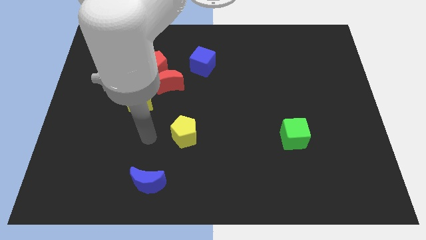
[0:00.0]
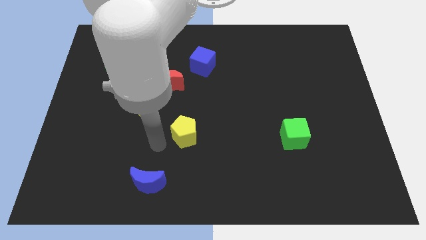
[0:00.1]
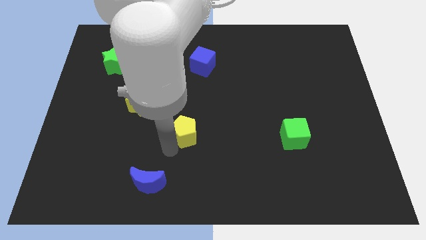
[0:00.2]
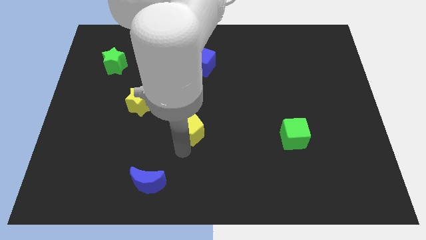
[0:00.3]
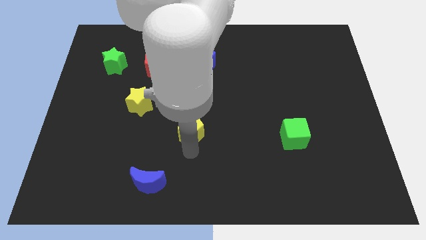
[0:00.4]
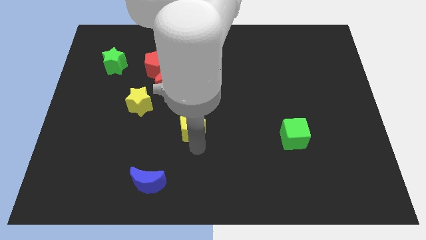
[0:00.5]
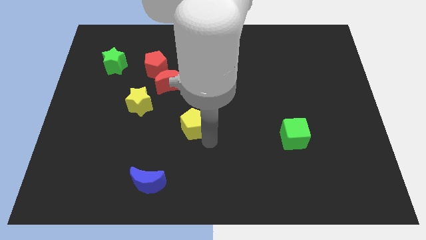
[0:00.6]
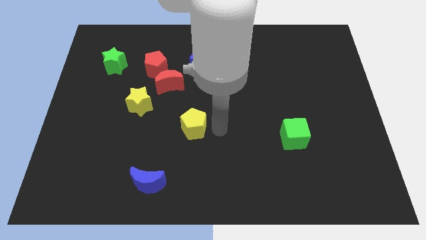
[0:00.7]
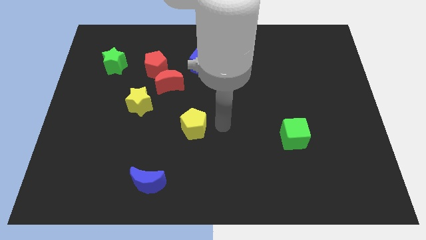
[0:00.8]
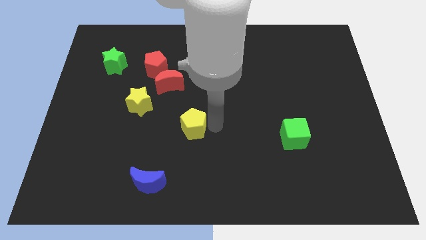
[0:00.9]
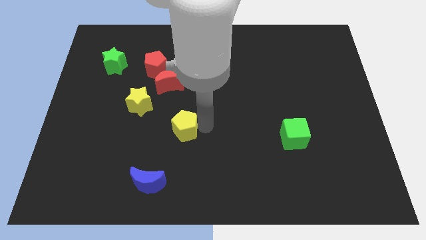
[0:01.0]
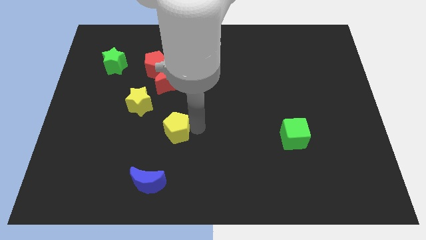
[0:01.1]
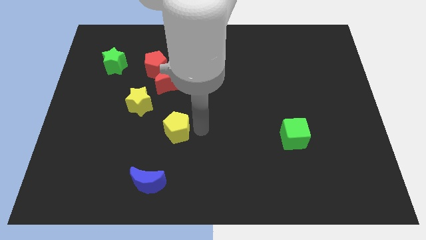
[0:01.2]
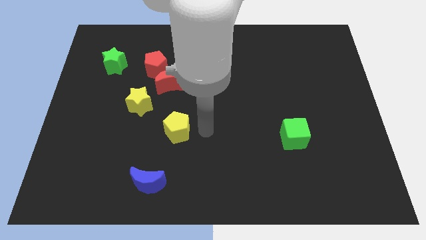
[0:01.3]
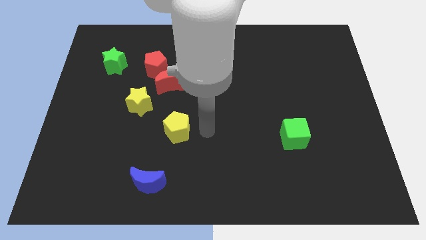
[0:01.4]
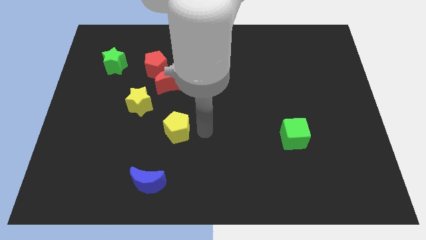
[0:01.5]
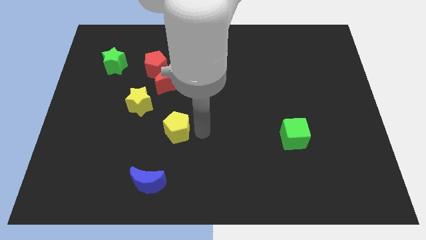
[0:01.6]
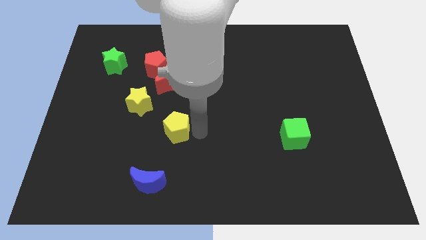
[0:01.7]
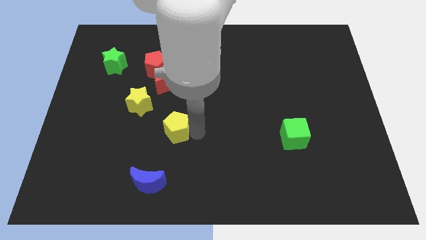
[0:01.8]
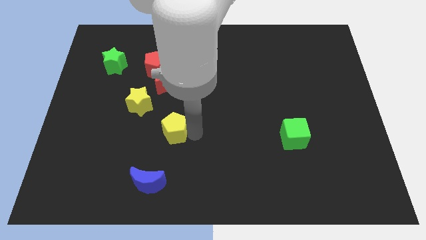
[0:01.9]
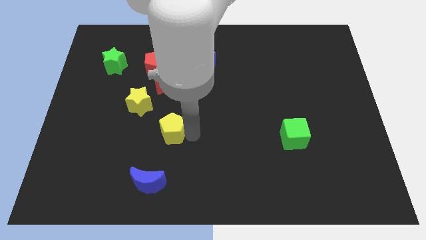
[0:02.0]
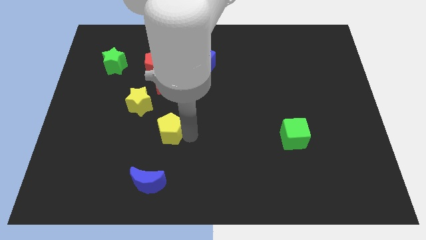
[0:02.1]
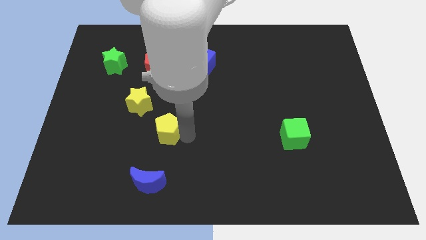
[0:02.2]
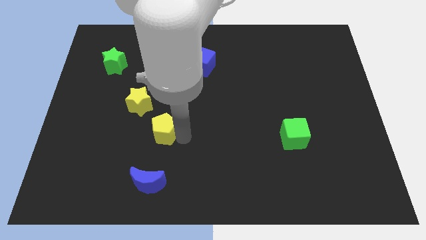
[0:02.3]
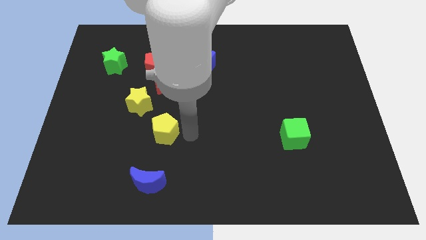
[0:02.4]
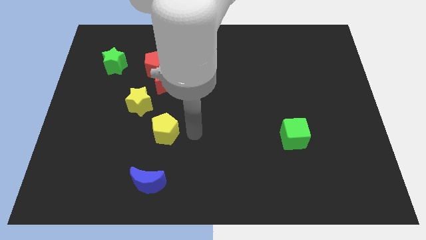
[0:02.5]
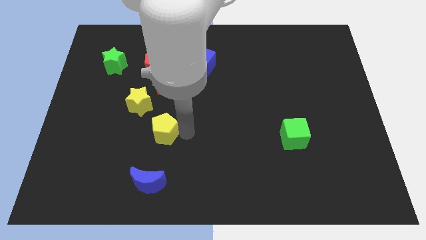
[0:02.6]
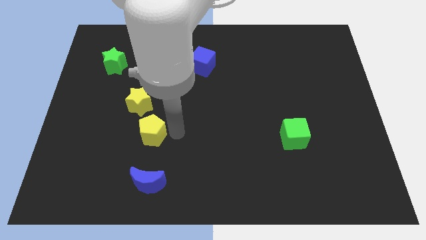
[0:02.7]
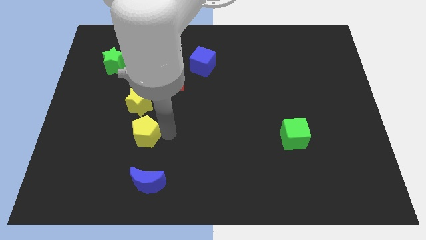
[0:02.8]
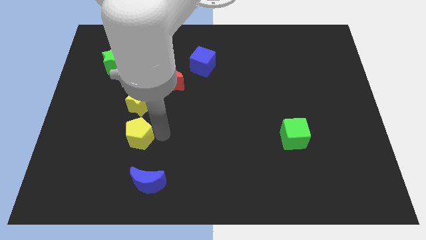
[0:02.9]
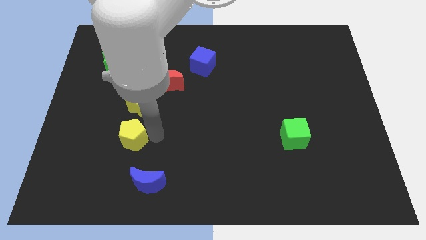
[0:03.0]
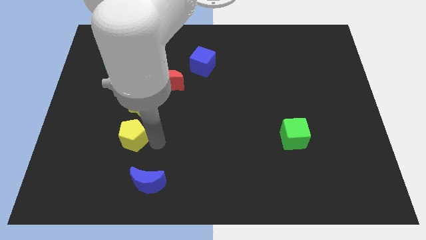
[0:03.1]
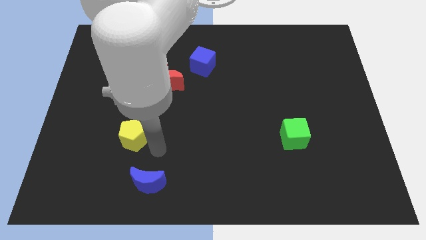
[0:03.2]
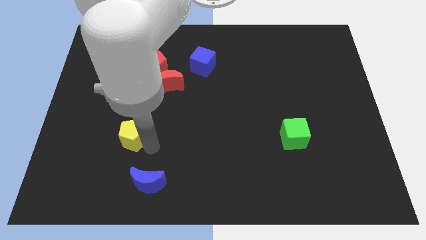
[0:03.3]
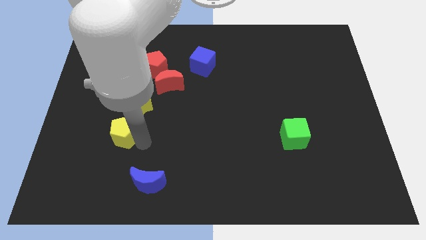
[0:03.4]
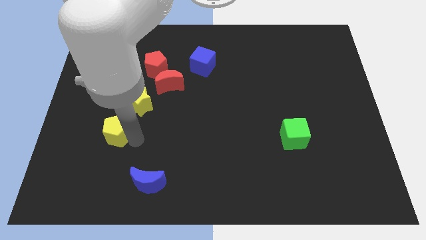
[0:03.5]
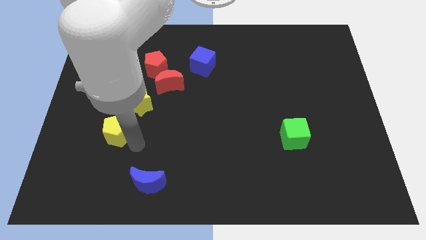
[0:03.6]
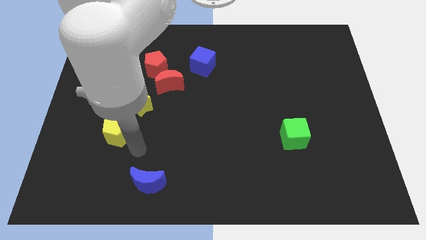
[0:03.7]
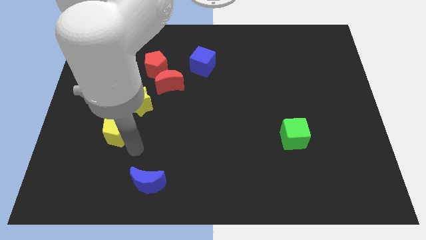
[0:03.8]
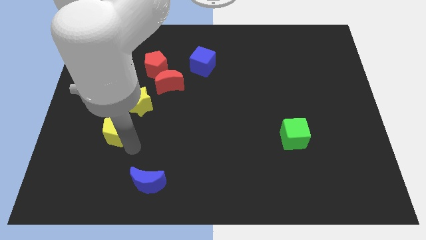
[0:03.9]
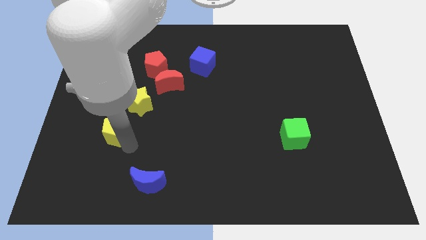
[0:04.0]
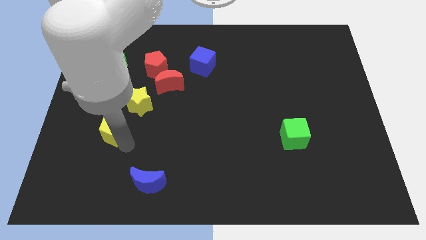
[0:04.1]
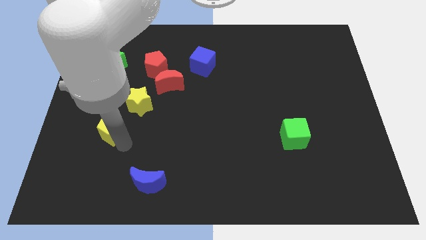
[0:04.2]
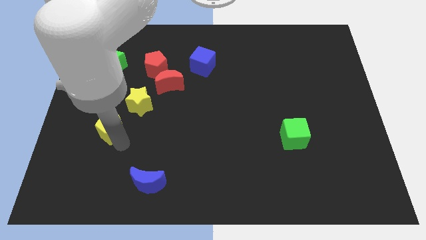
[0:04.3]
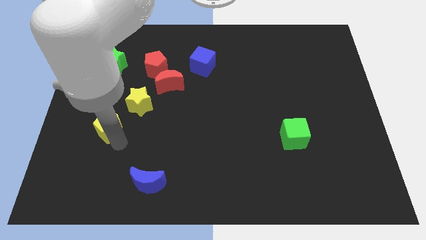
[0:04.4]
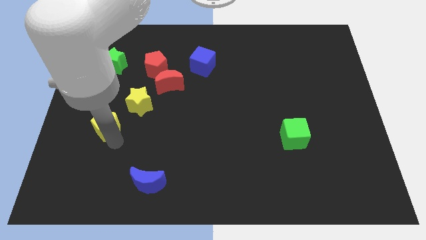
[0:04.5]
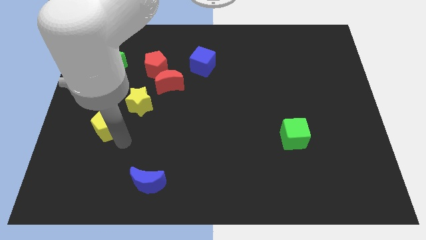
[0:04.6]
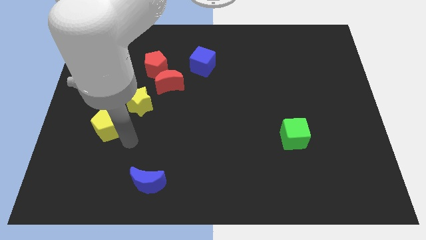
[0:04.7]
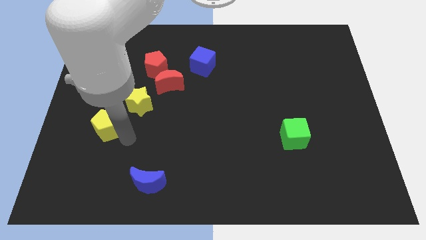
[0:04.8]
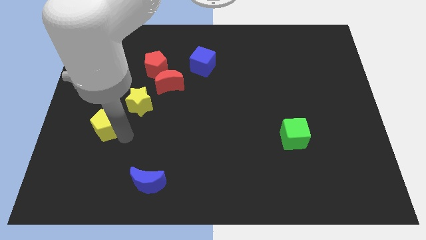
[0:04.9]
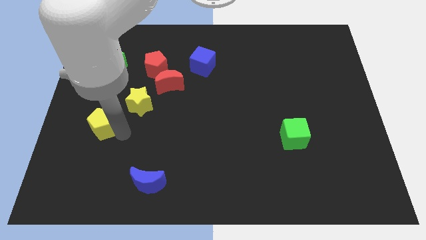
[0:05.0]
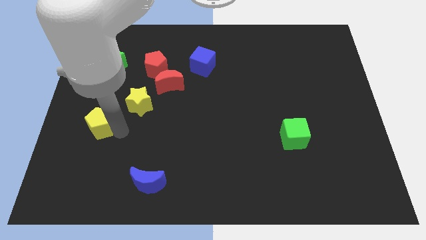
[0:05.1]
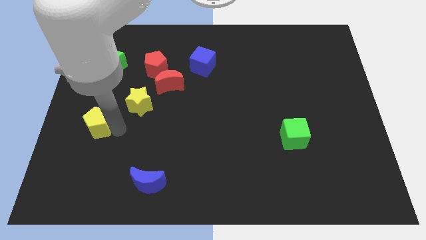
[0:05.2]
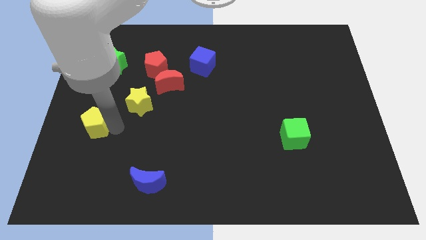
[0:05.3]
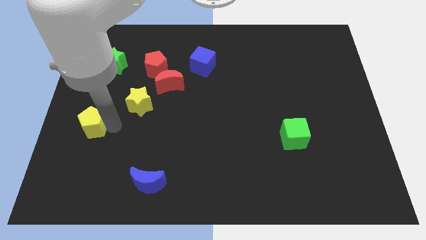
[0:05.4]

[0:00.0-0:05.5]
move the yellow pentagon to the left side

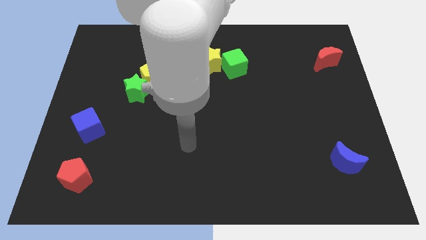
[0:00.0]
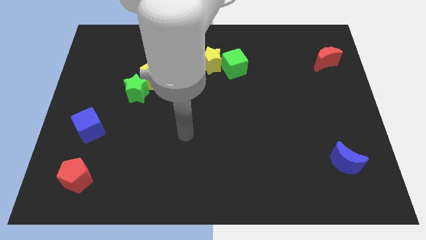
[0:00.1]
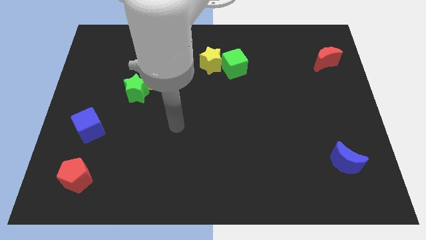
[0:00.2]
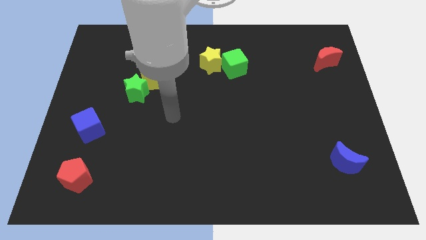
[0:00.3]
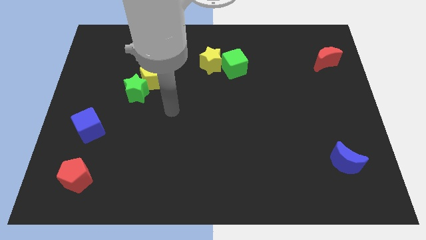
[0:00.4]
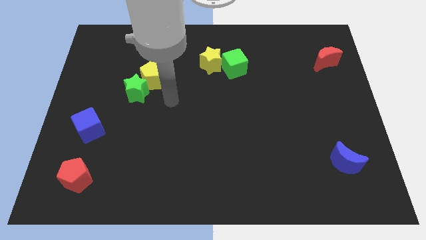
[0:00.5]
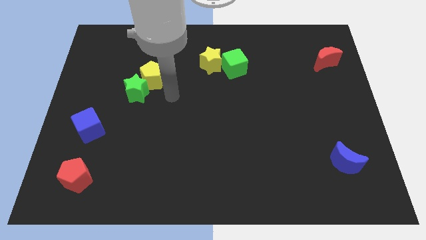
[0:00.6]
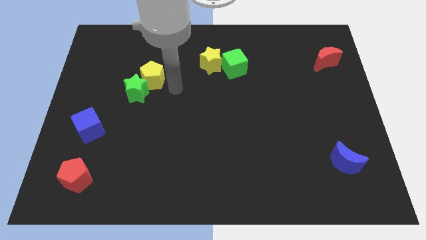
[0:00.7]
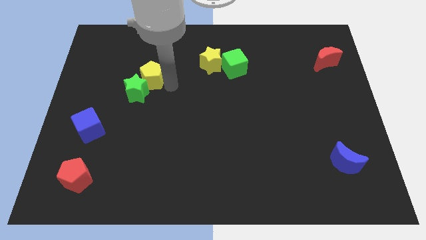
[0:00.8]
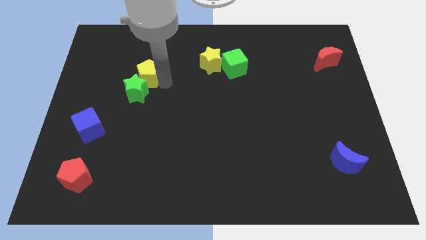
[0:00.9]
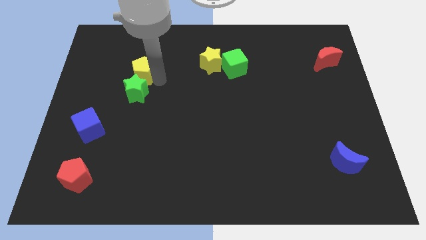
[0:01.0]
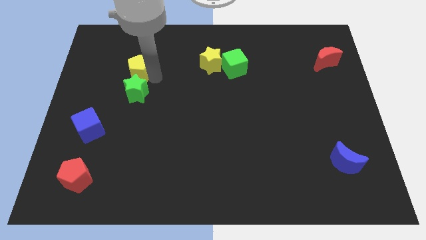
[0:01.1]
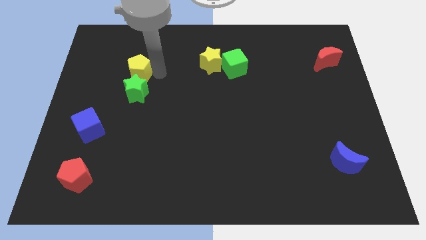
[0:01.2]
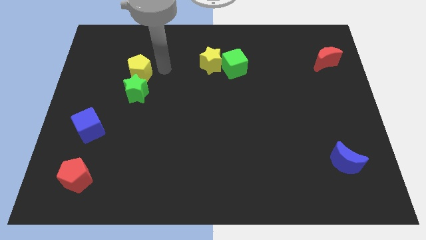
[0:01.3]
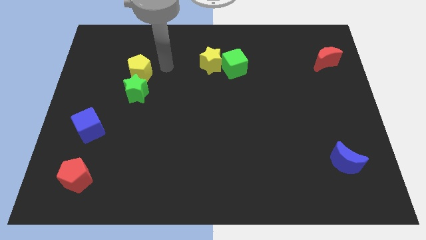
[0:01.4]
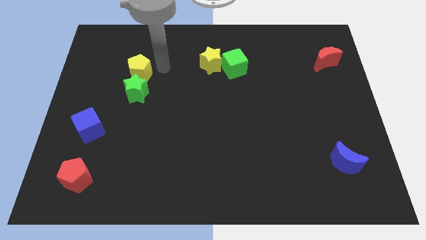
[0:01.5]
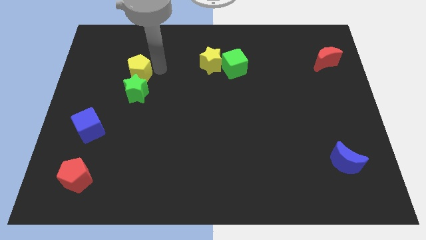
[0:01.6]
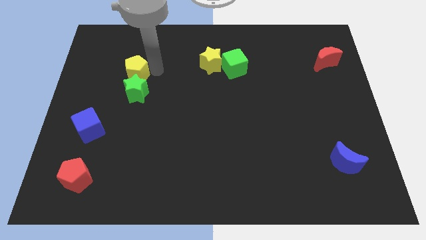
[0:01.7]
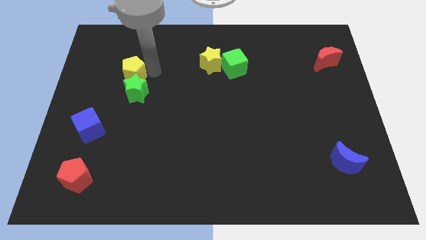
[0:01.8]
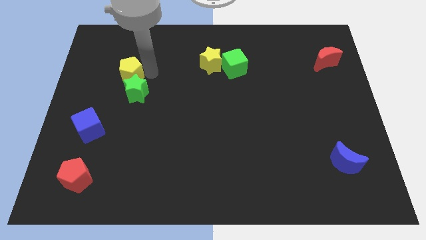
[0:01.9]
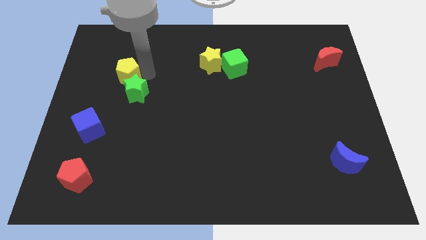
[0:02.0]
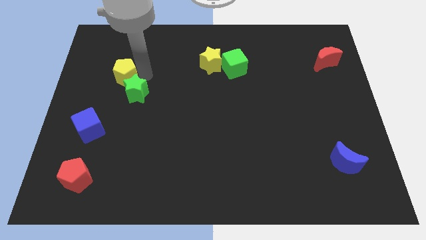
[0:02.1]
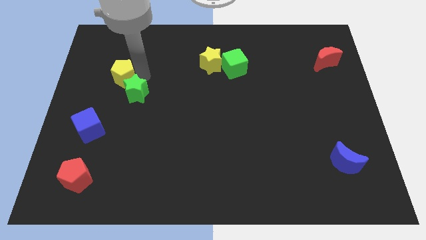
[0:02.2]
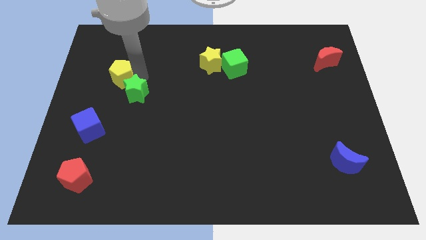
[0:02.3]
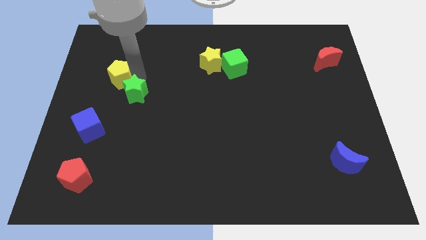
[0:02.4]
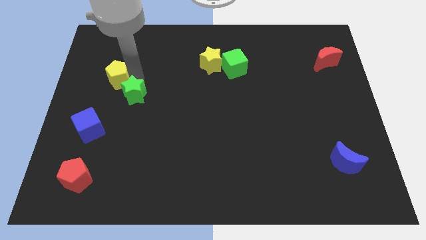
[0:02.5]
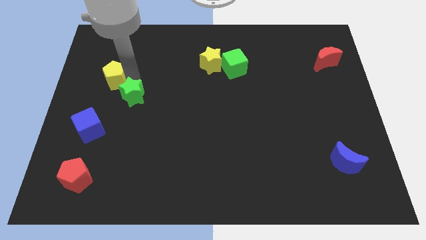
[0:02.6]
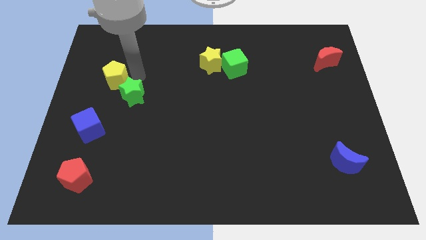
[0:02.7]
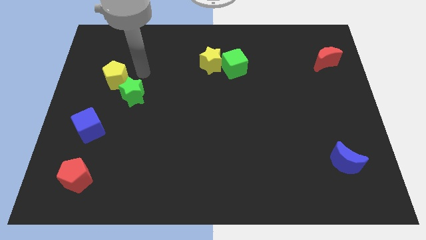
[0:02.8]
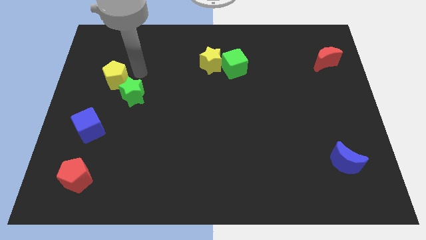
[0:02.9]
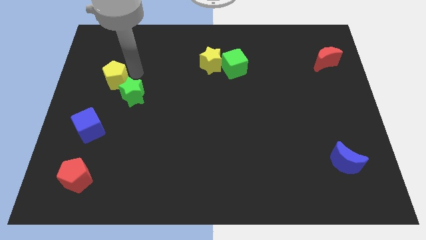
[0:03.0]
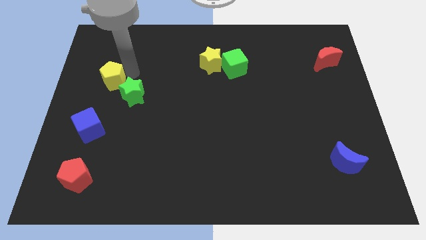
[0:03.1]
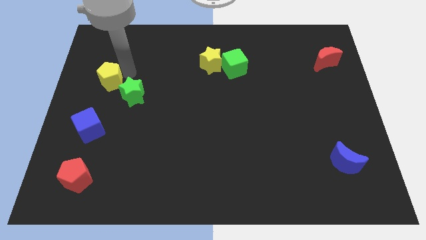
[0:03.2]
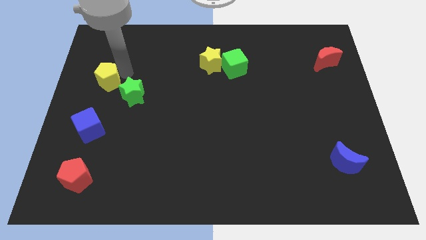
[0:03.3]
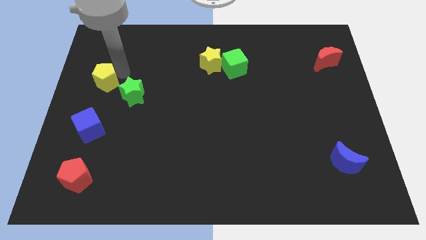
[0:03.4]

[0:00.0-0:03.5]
put the yellow pentagon to the center left
